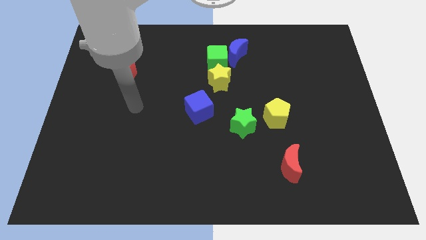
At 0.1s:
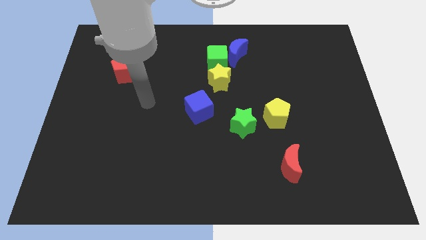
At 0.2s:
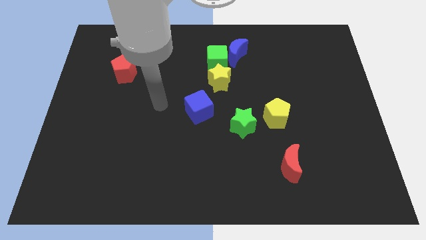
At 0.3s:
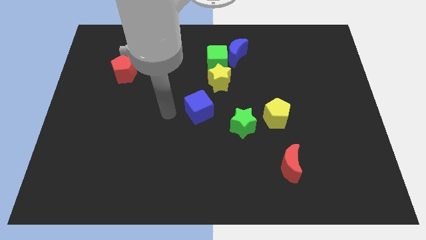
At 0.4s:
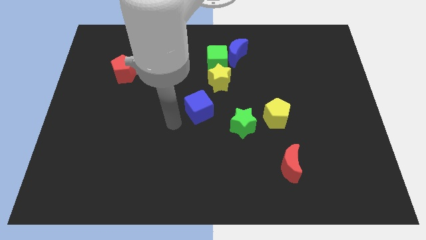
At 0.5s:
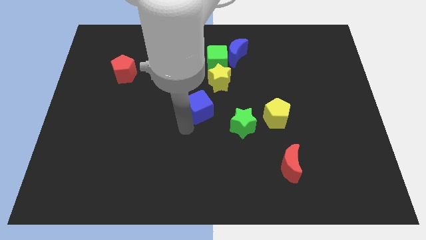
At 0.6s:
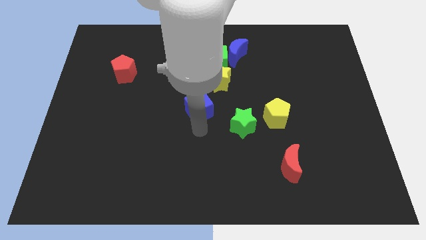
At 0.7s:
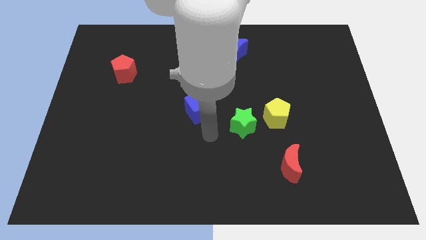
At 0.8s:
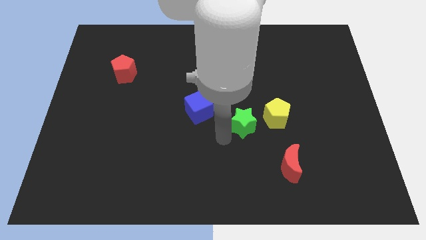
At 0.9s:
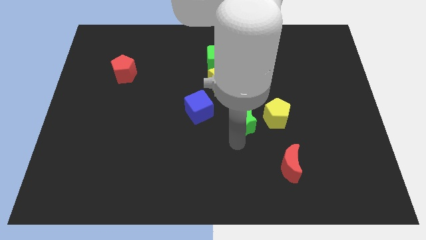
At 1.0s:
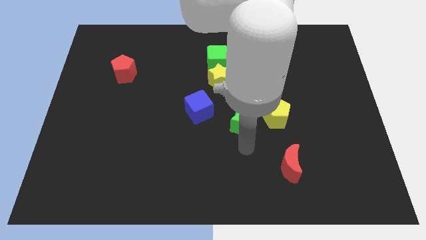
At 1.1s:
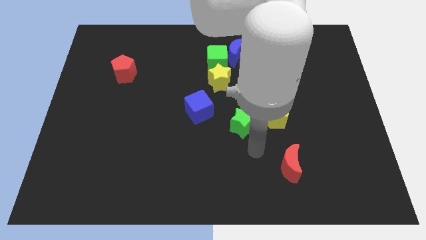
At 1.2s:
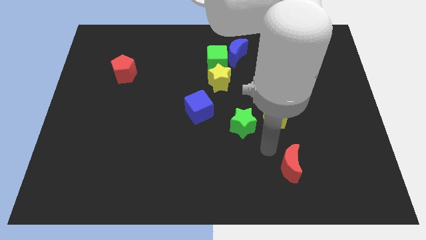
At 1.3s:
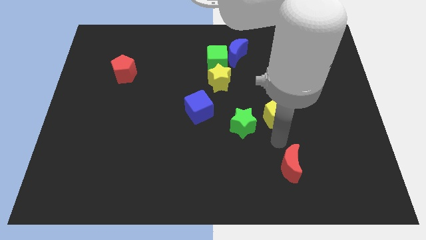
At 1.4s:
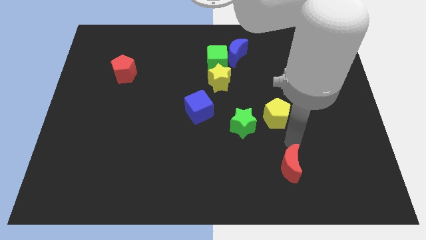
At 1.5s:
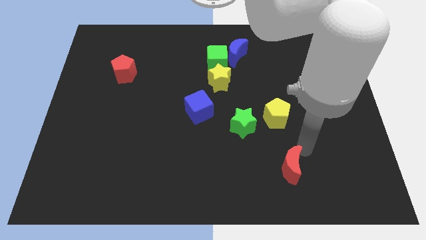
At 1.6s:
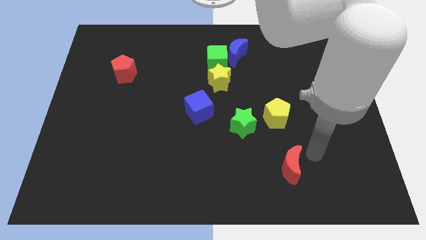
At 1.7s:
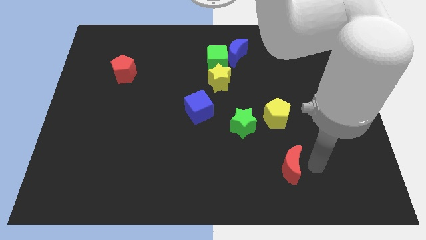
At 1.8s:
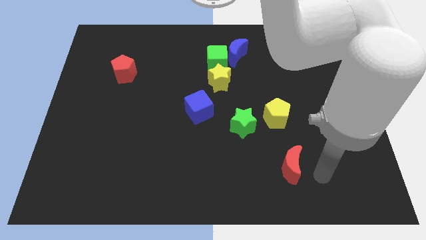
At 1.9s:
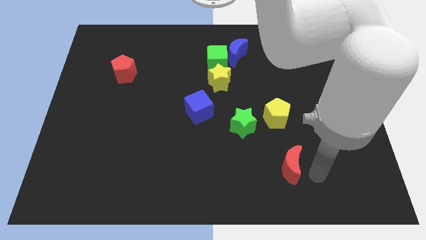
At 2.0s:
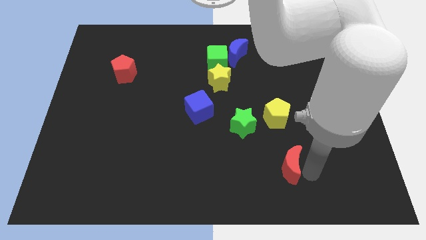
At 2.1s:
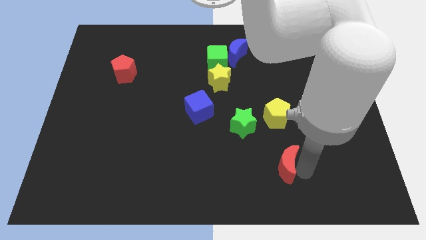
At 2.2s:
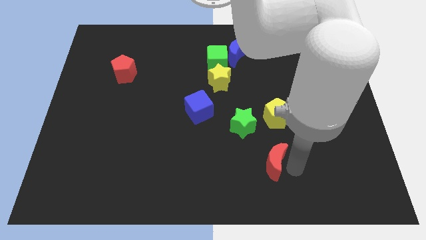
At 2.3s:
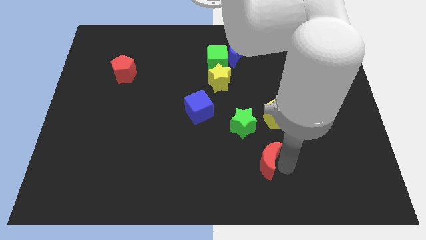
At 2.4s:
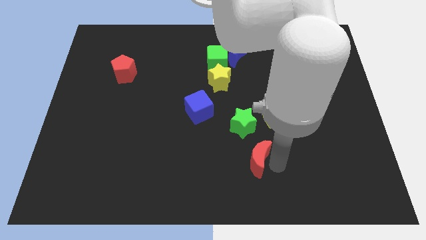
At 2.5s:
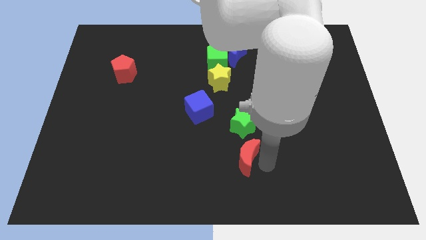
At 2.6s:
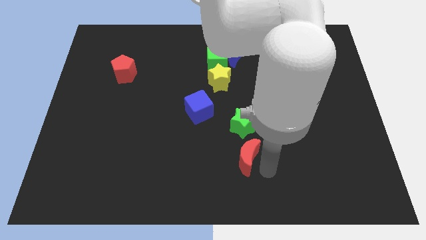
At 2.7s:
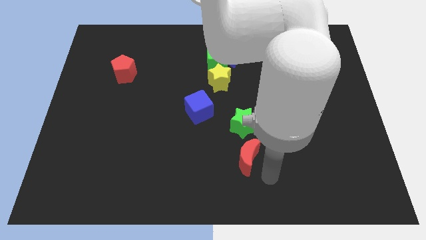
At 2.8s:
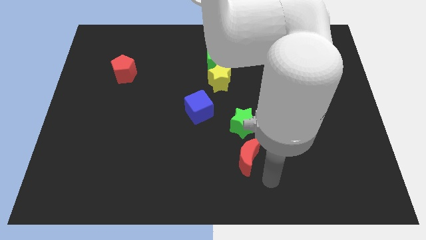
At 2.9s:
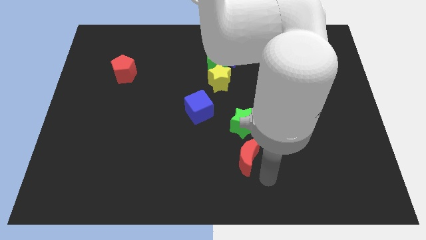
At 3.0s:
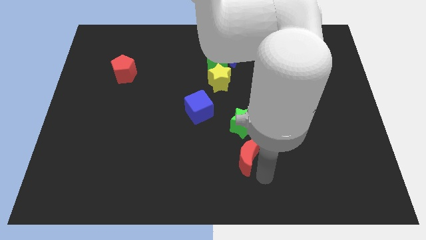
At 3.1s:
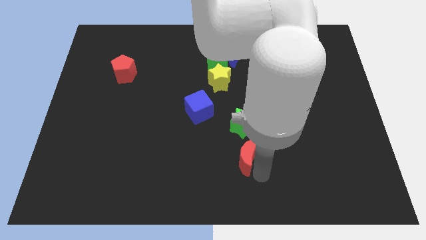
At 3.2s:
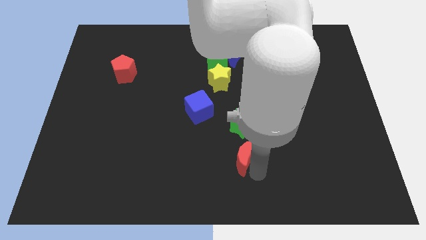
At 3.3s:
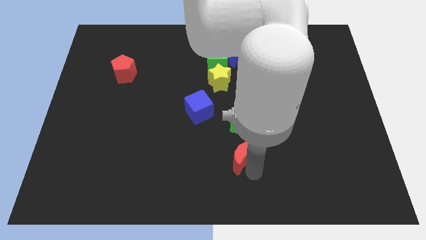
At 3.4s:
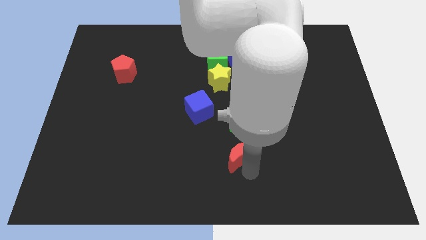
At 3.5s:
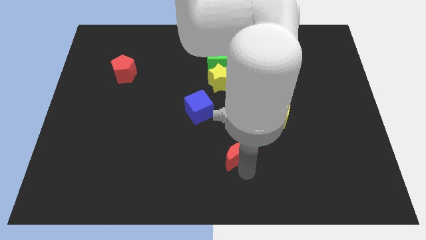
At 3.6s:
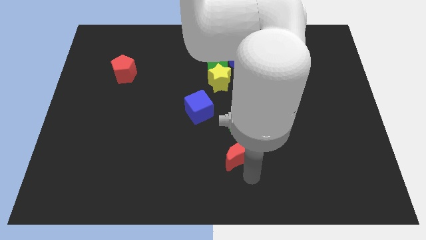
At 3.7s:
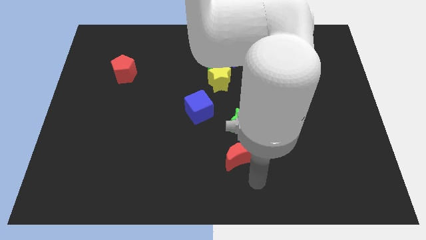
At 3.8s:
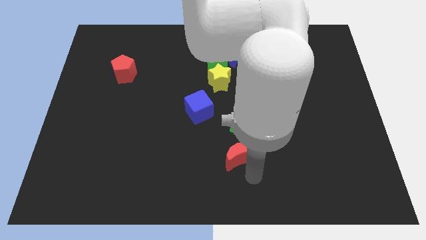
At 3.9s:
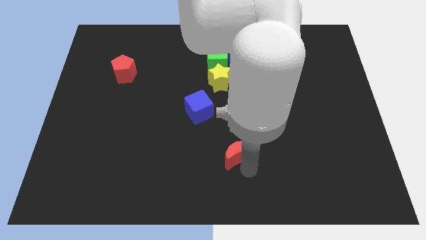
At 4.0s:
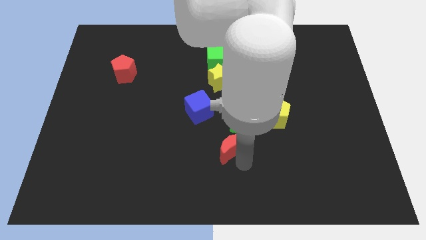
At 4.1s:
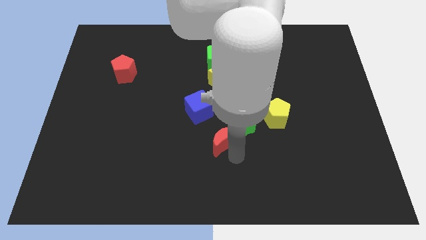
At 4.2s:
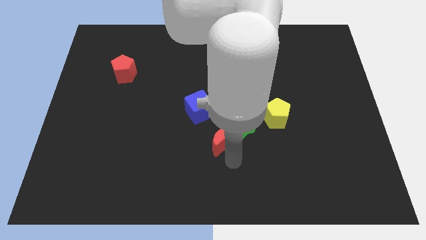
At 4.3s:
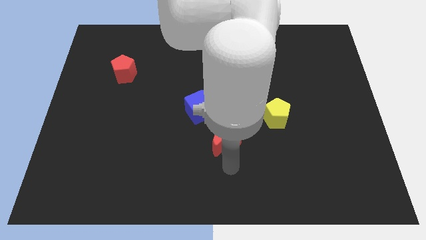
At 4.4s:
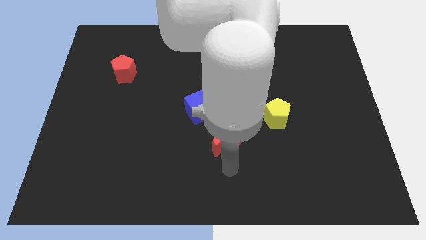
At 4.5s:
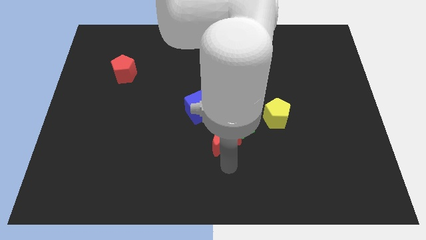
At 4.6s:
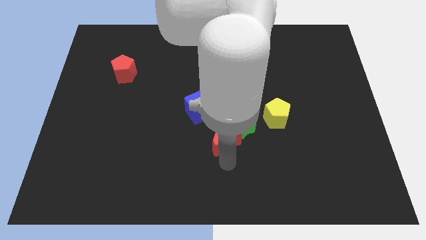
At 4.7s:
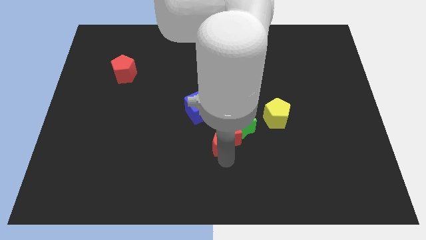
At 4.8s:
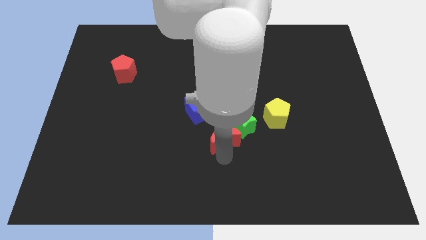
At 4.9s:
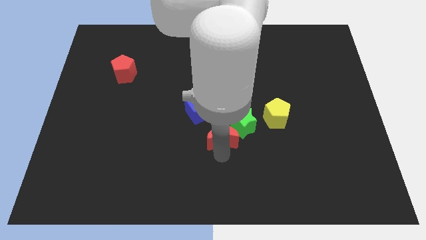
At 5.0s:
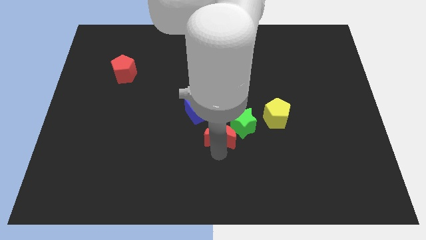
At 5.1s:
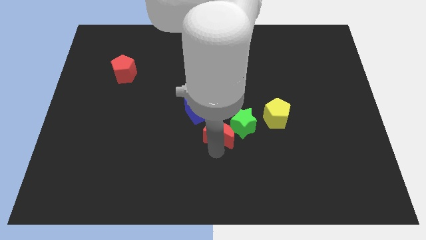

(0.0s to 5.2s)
move the red moon below the yellow star

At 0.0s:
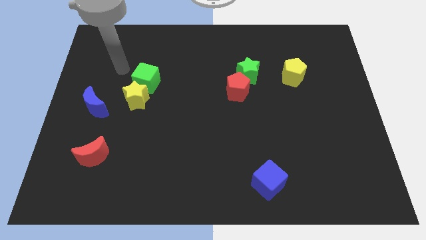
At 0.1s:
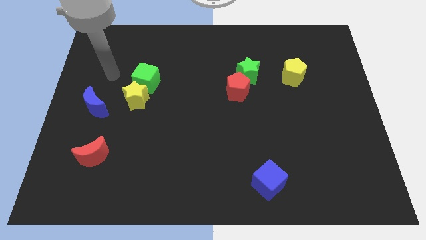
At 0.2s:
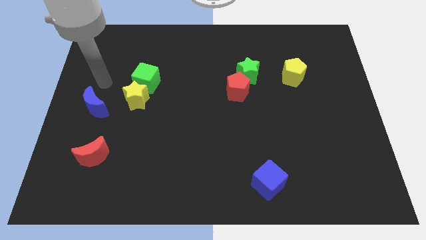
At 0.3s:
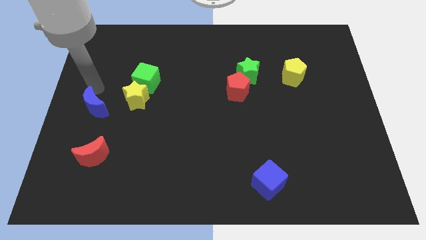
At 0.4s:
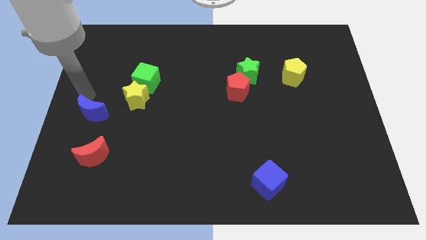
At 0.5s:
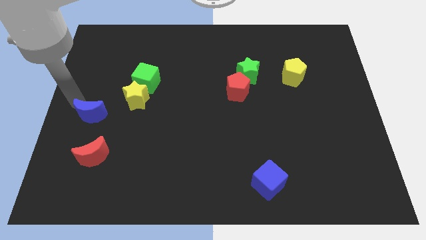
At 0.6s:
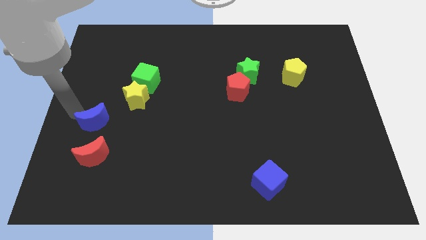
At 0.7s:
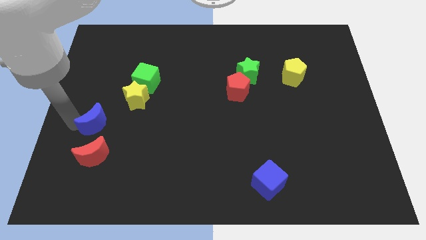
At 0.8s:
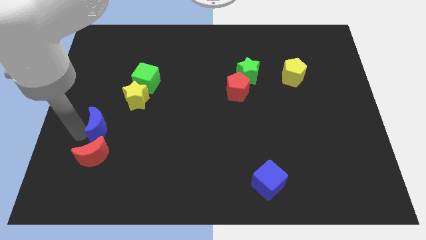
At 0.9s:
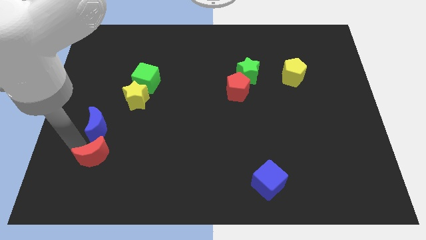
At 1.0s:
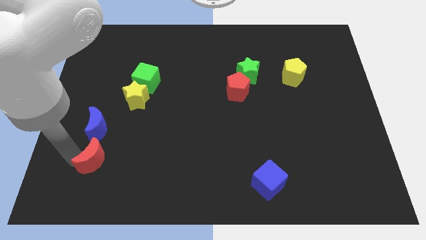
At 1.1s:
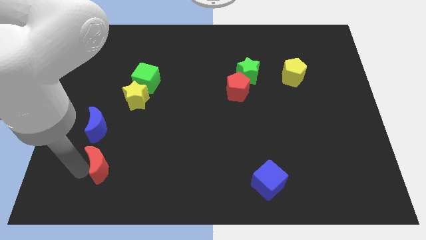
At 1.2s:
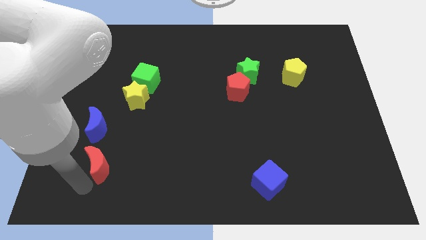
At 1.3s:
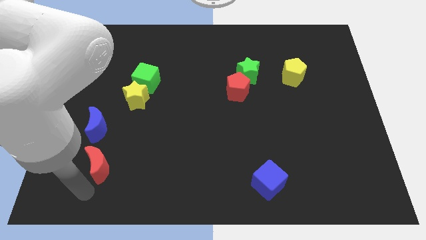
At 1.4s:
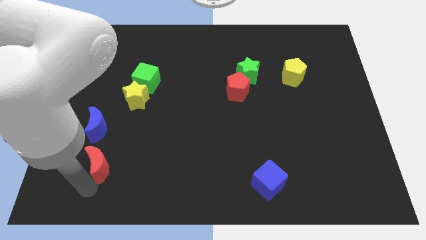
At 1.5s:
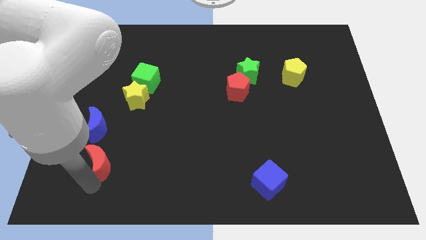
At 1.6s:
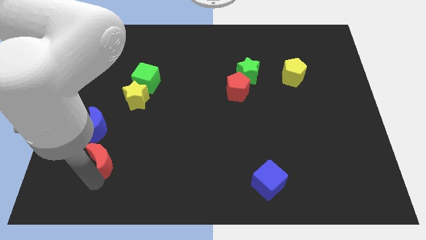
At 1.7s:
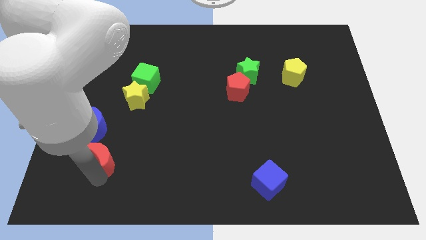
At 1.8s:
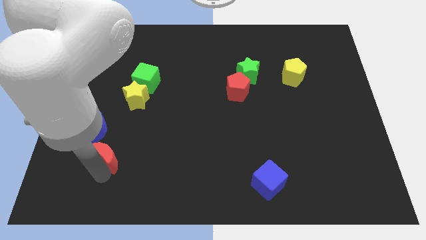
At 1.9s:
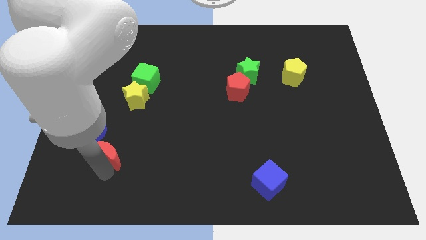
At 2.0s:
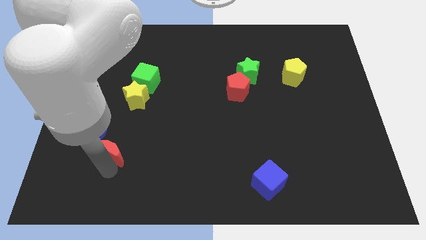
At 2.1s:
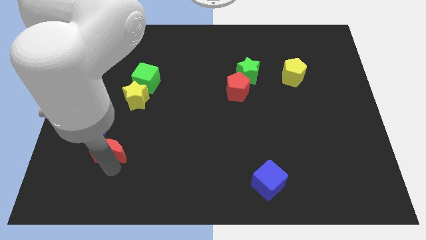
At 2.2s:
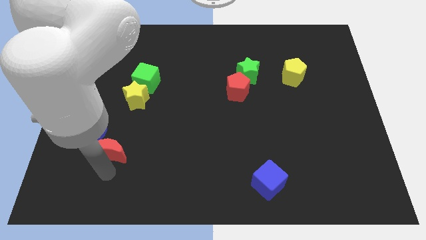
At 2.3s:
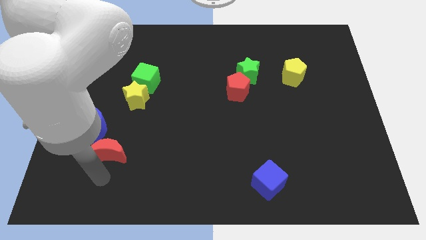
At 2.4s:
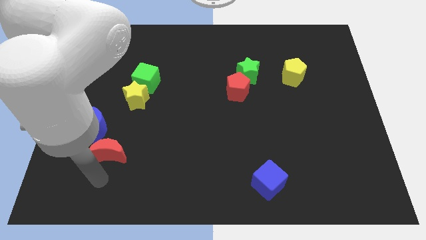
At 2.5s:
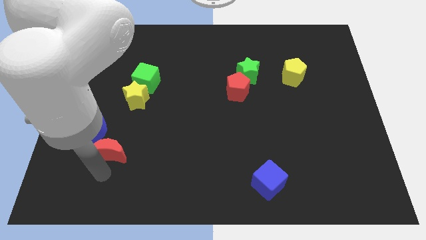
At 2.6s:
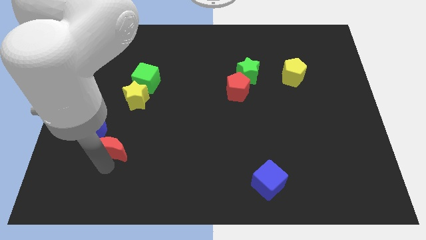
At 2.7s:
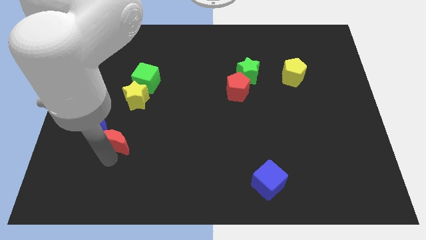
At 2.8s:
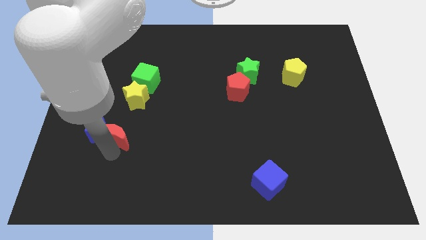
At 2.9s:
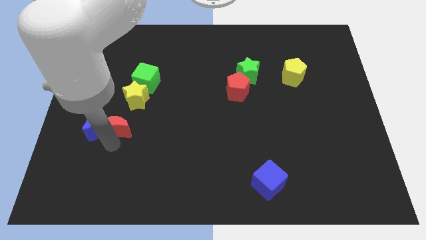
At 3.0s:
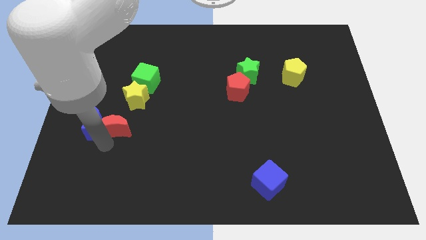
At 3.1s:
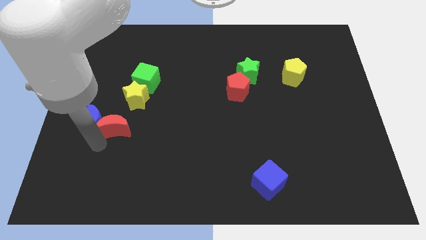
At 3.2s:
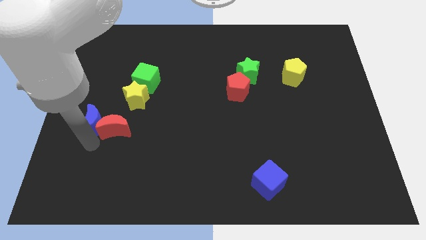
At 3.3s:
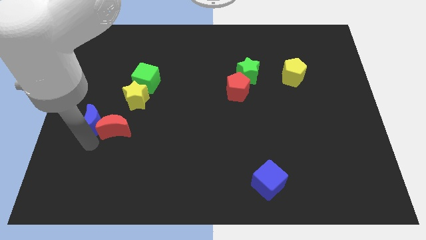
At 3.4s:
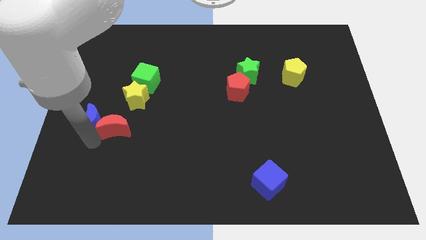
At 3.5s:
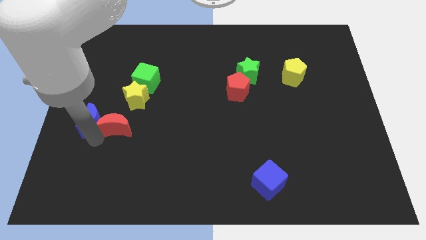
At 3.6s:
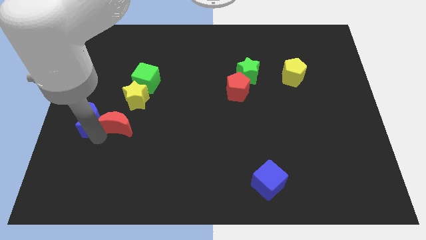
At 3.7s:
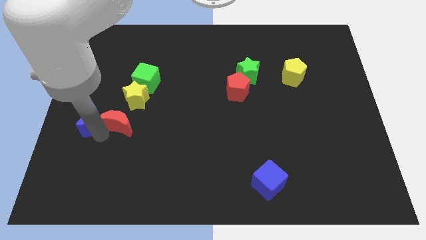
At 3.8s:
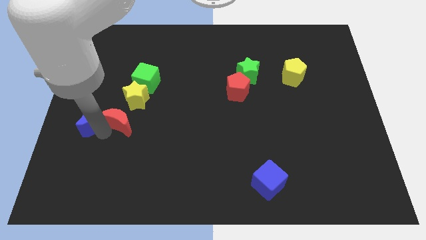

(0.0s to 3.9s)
move the red moon to the bottom side of the green cube
